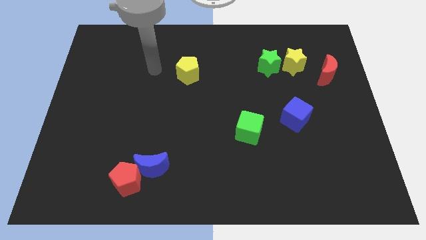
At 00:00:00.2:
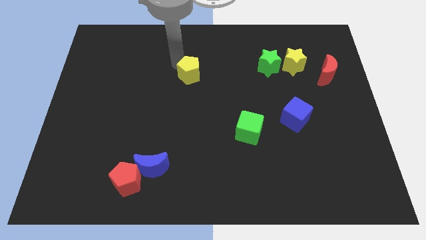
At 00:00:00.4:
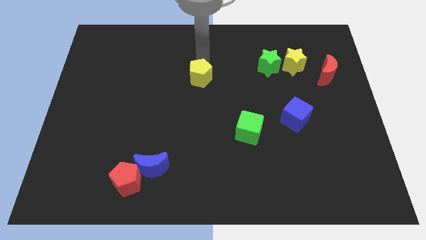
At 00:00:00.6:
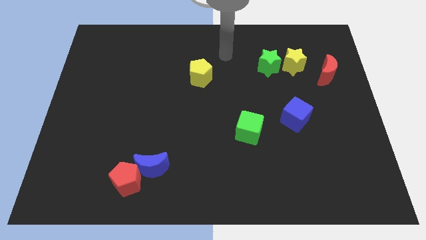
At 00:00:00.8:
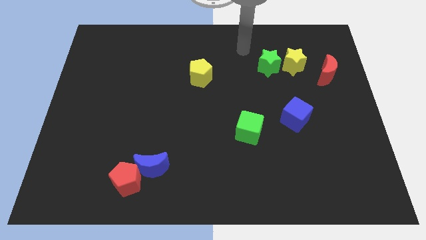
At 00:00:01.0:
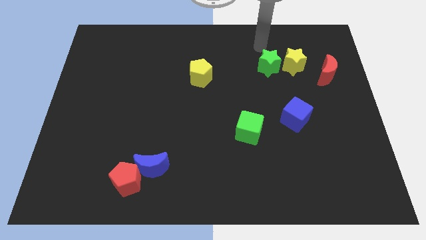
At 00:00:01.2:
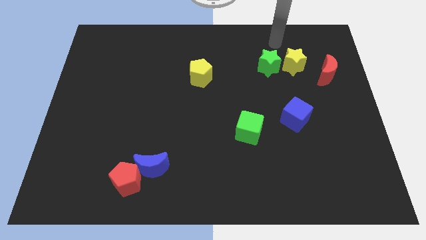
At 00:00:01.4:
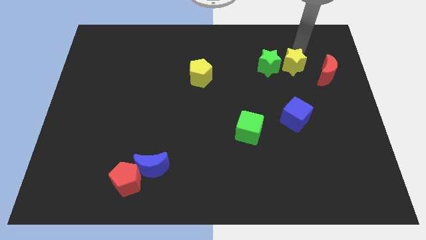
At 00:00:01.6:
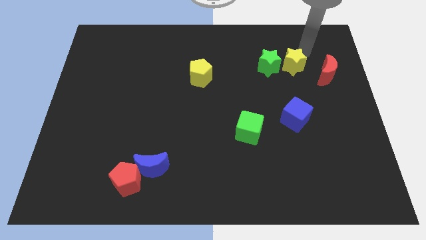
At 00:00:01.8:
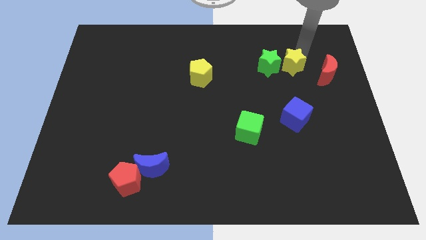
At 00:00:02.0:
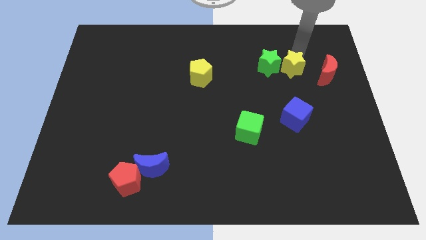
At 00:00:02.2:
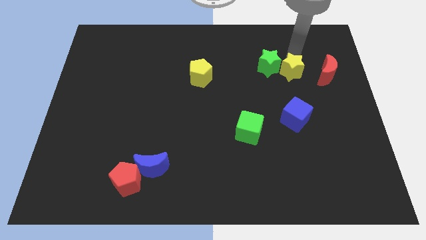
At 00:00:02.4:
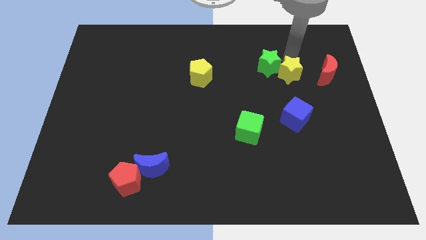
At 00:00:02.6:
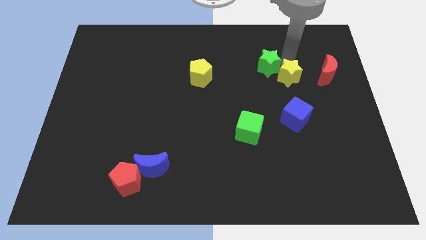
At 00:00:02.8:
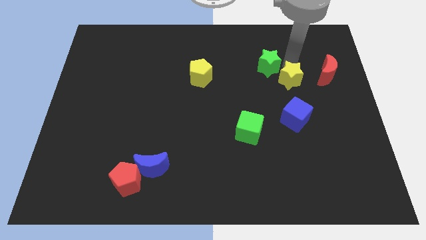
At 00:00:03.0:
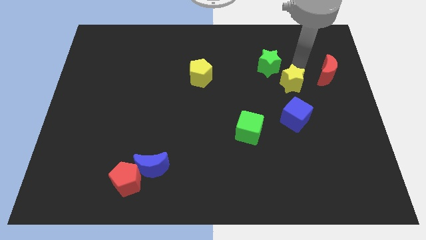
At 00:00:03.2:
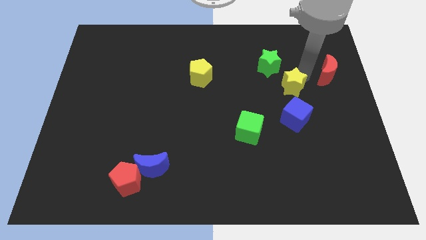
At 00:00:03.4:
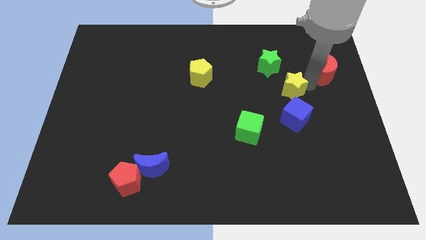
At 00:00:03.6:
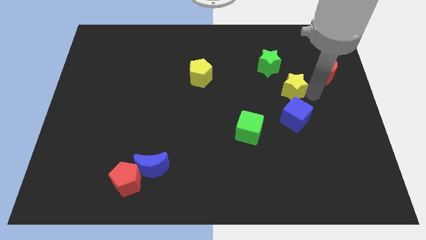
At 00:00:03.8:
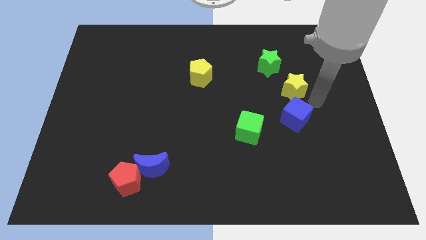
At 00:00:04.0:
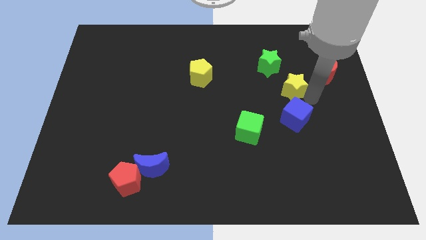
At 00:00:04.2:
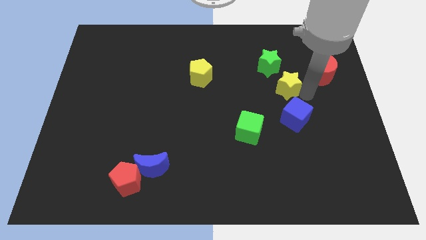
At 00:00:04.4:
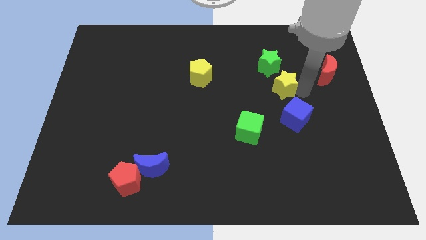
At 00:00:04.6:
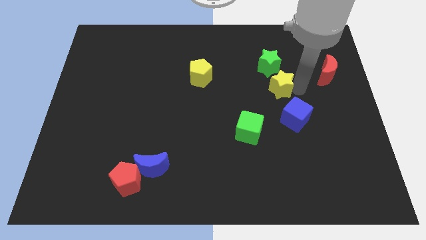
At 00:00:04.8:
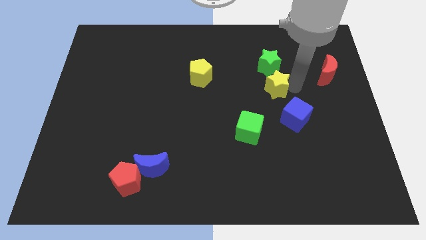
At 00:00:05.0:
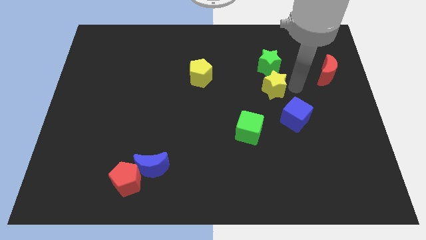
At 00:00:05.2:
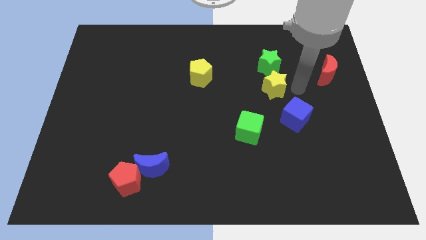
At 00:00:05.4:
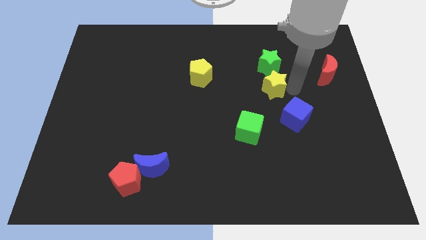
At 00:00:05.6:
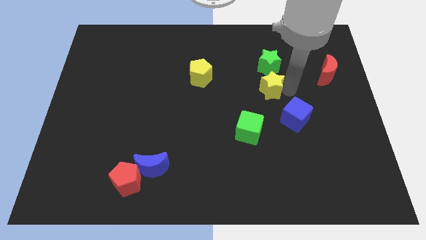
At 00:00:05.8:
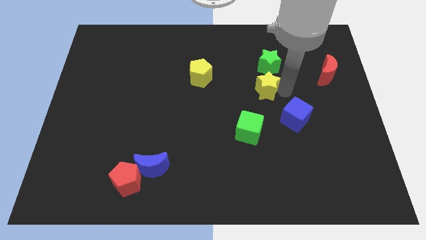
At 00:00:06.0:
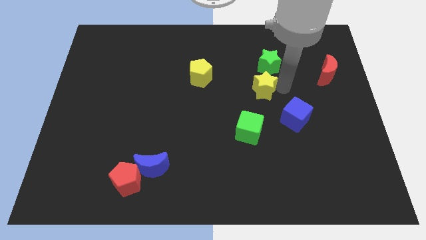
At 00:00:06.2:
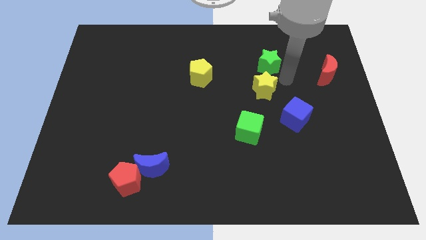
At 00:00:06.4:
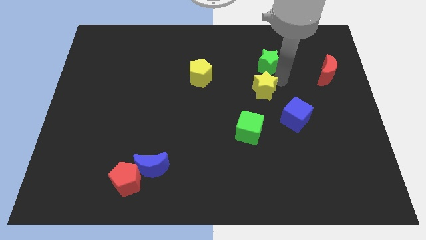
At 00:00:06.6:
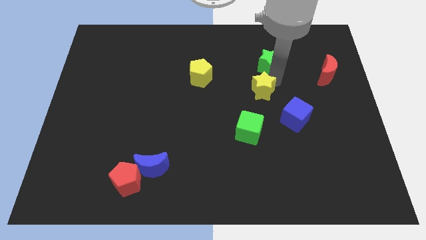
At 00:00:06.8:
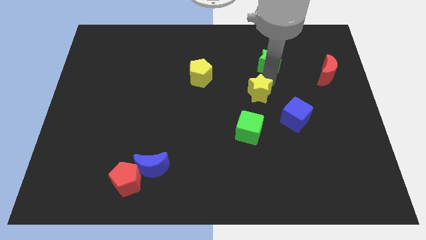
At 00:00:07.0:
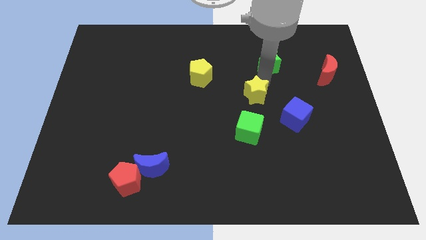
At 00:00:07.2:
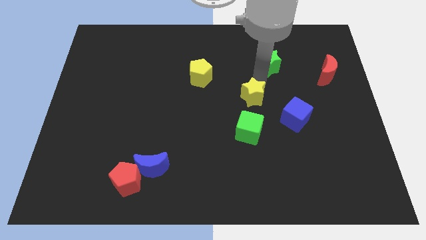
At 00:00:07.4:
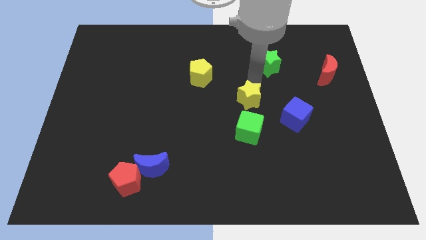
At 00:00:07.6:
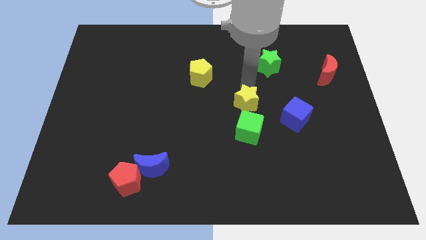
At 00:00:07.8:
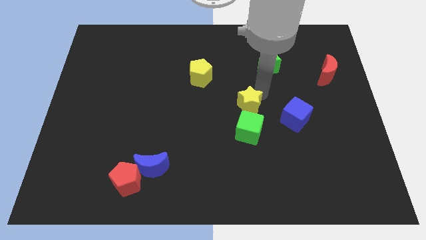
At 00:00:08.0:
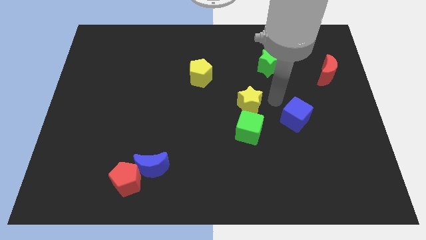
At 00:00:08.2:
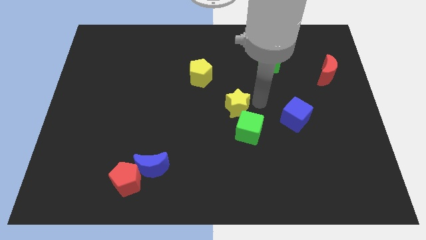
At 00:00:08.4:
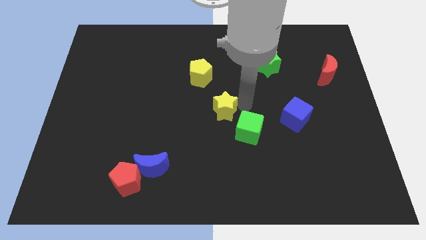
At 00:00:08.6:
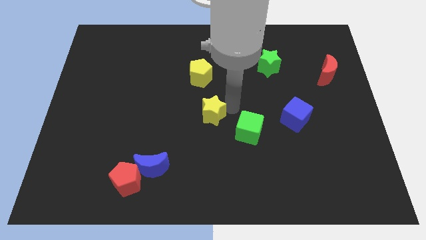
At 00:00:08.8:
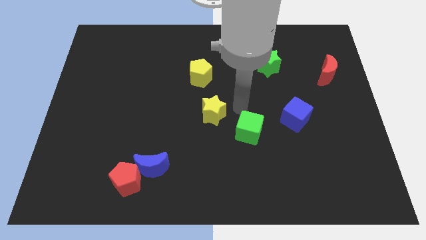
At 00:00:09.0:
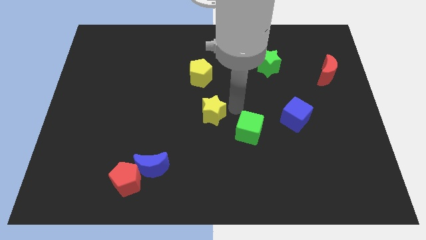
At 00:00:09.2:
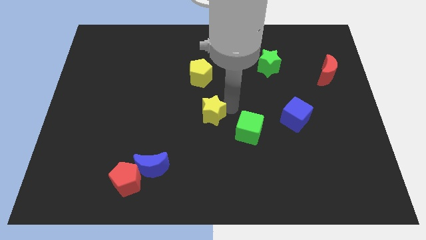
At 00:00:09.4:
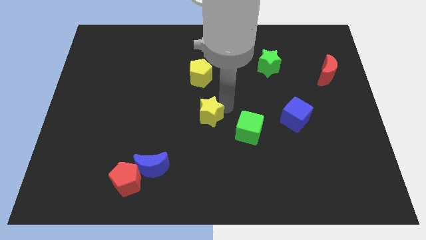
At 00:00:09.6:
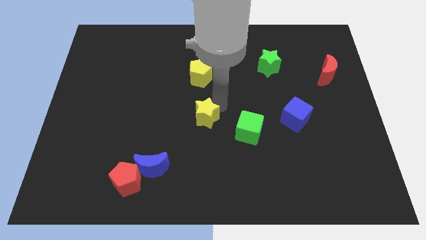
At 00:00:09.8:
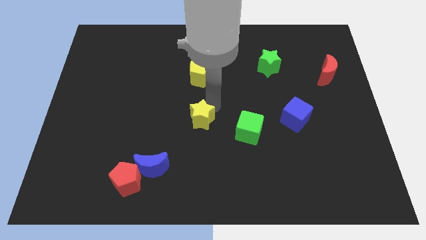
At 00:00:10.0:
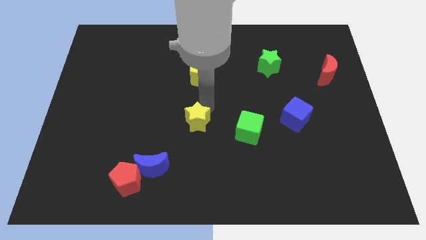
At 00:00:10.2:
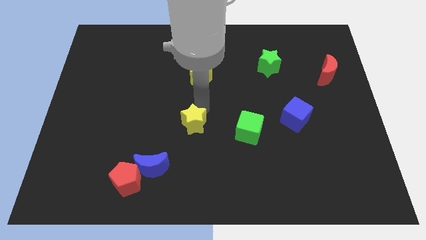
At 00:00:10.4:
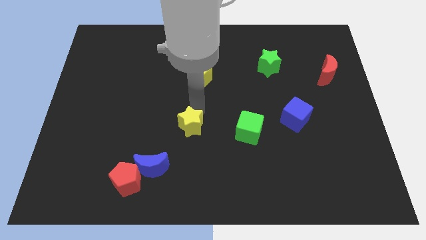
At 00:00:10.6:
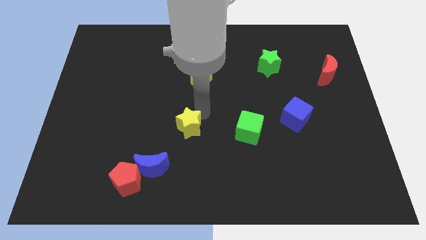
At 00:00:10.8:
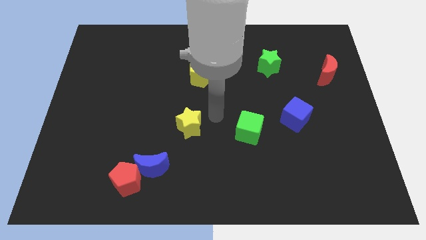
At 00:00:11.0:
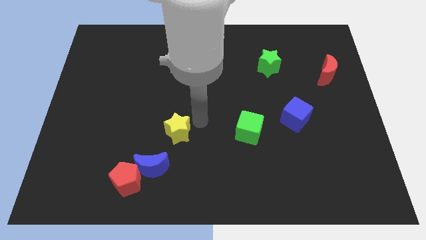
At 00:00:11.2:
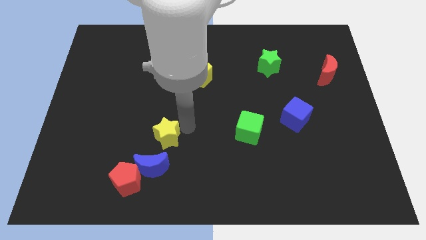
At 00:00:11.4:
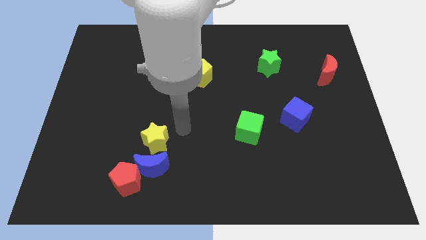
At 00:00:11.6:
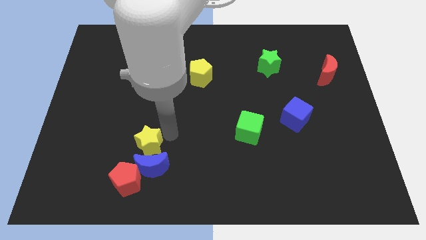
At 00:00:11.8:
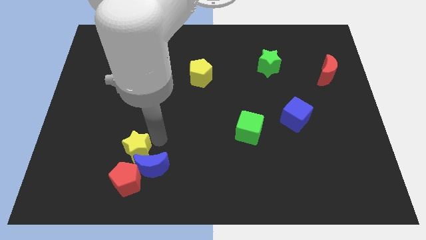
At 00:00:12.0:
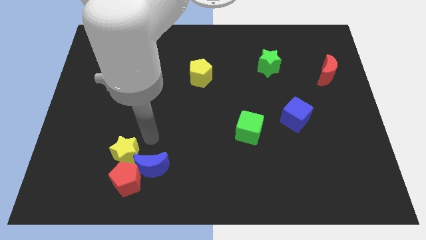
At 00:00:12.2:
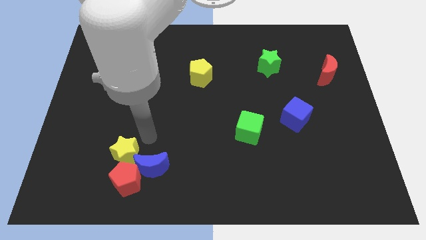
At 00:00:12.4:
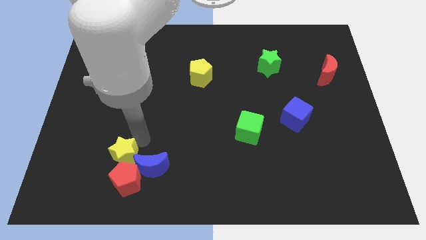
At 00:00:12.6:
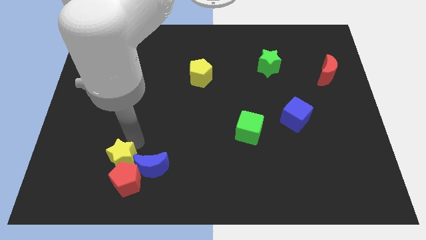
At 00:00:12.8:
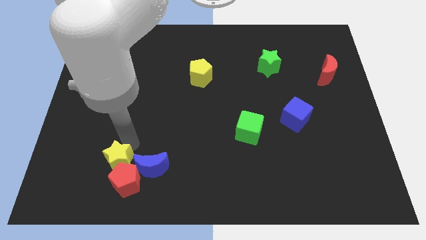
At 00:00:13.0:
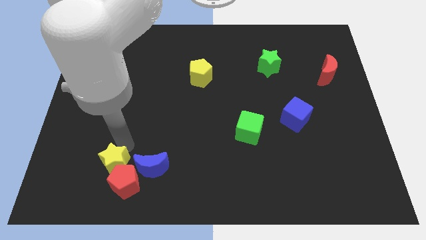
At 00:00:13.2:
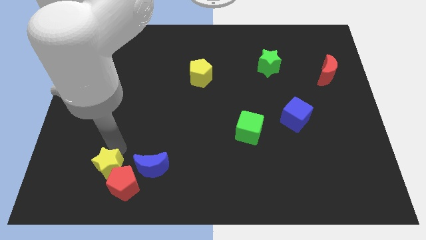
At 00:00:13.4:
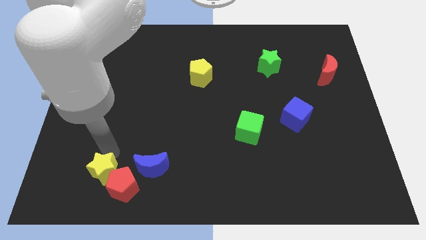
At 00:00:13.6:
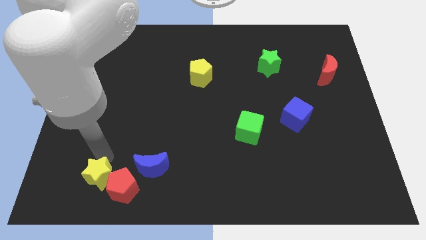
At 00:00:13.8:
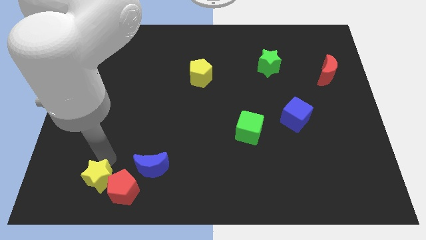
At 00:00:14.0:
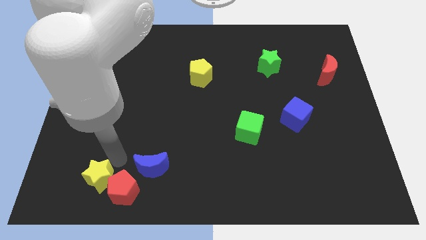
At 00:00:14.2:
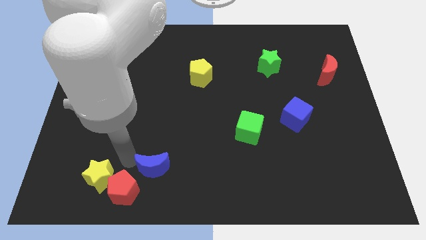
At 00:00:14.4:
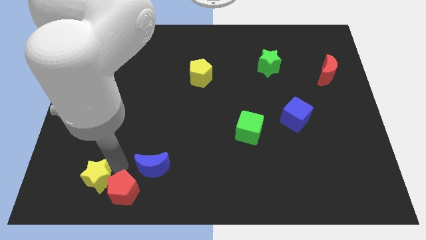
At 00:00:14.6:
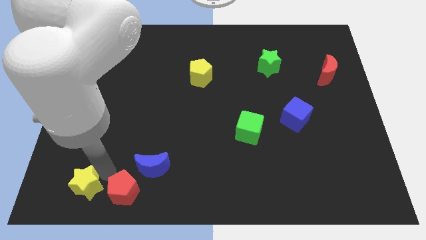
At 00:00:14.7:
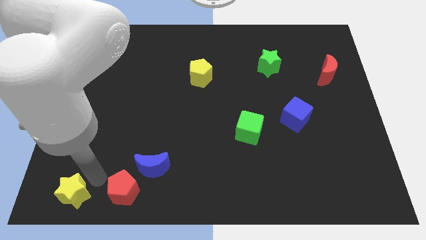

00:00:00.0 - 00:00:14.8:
slide the yellow star to the bottom left
